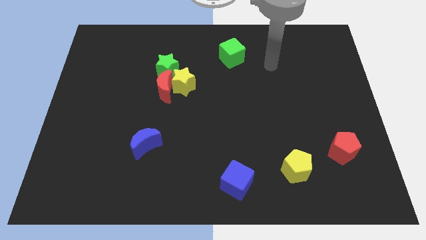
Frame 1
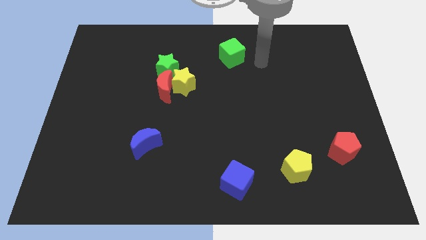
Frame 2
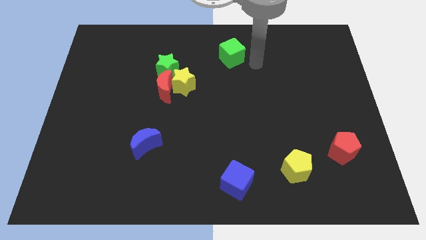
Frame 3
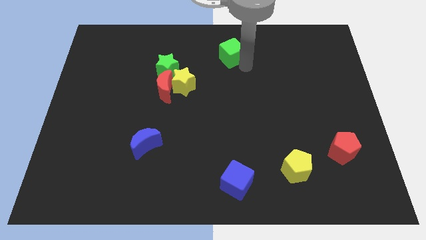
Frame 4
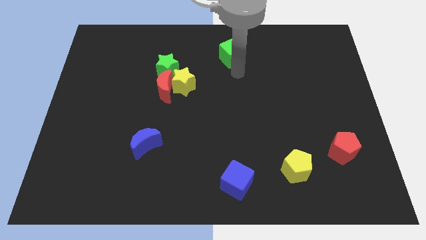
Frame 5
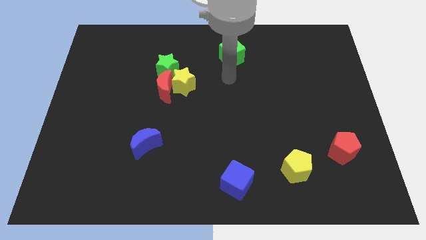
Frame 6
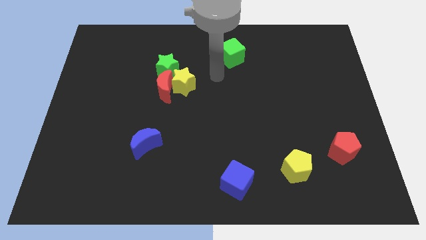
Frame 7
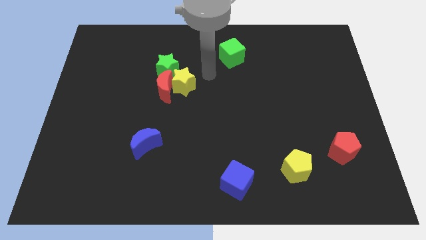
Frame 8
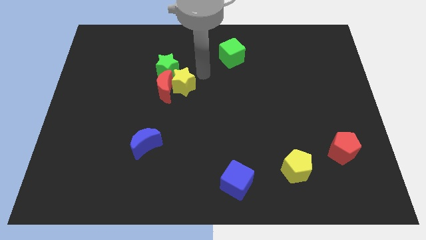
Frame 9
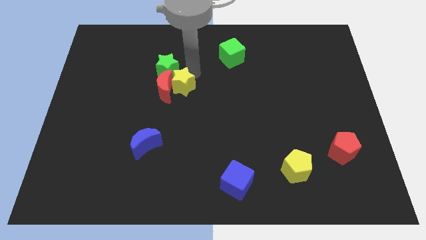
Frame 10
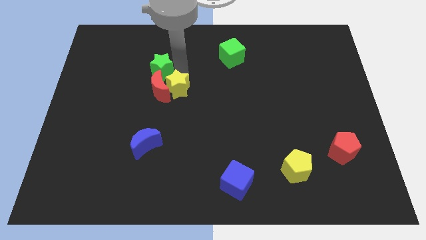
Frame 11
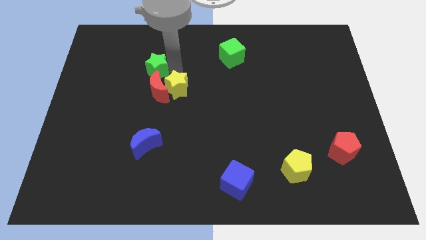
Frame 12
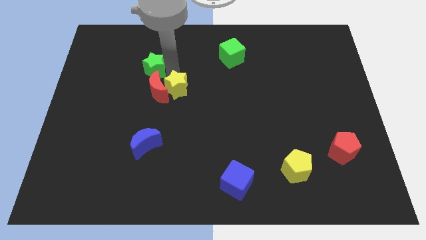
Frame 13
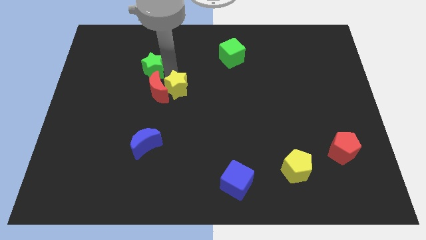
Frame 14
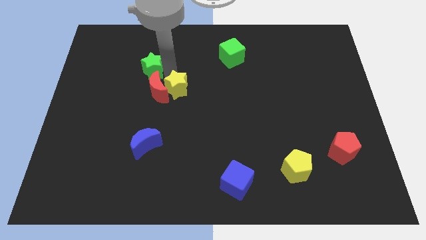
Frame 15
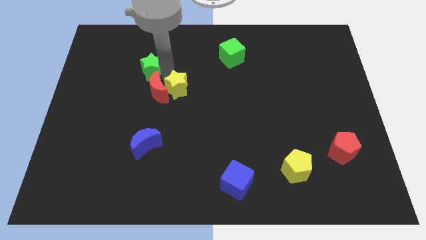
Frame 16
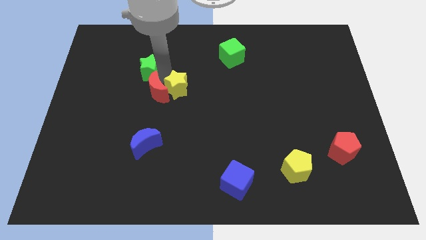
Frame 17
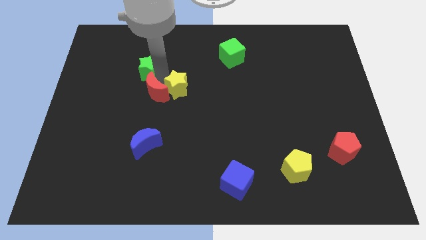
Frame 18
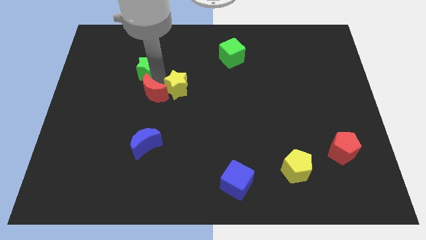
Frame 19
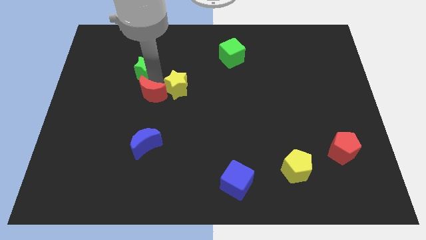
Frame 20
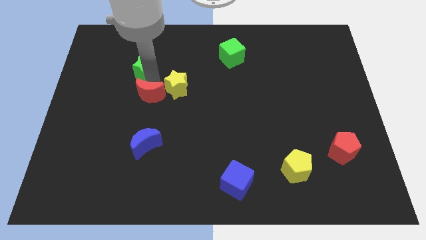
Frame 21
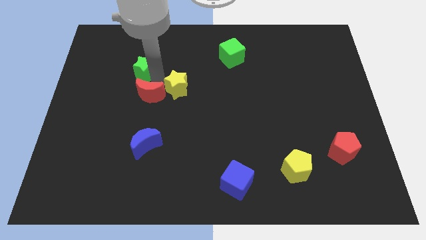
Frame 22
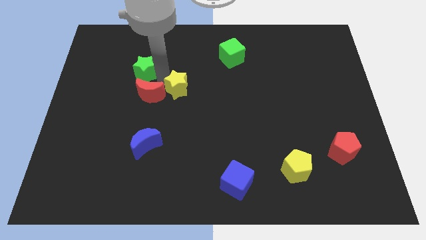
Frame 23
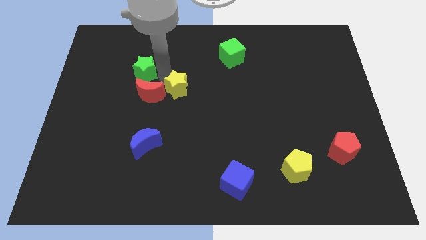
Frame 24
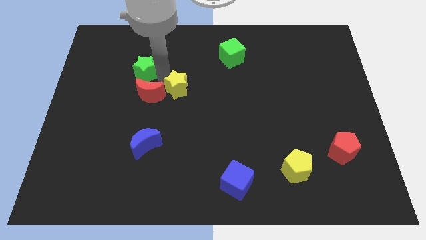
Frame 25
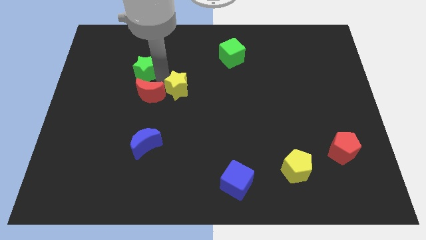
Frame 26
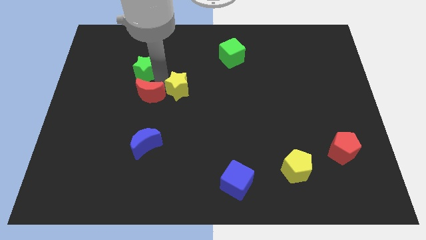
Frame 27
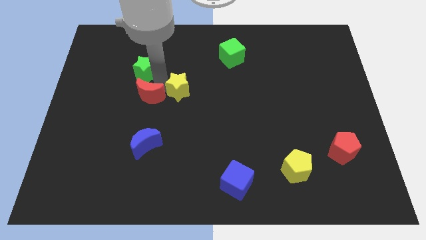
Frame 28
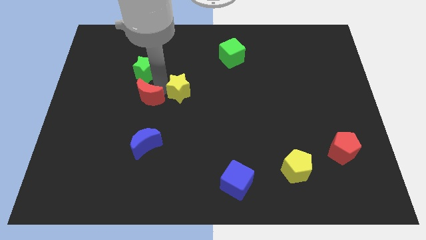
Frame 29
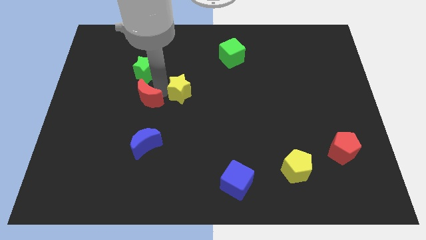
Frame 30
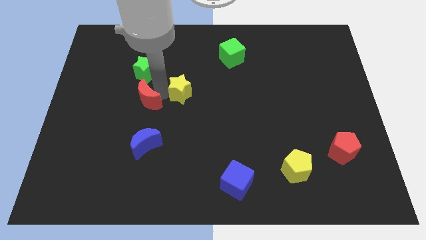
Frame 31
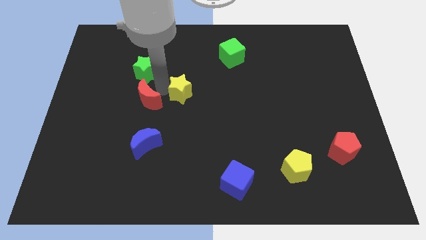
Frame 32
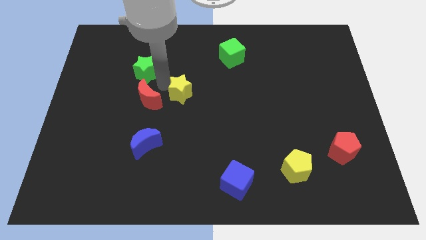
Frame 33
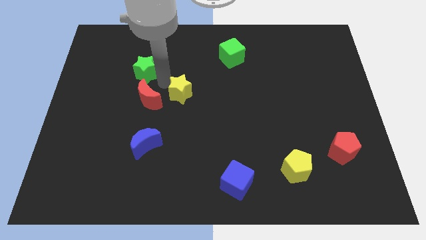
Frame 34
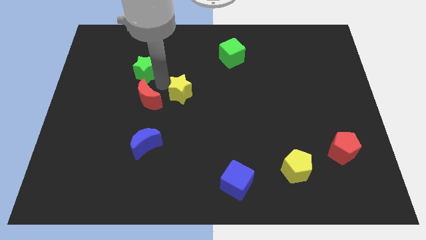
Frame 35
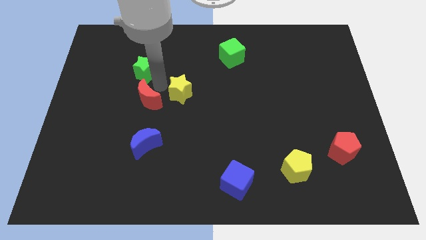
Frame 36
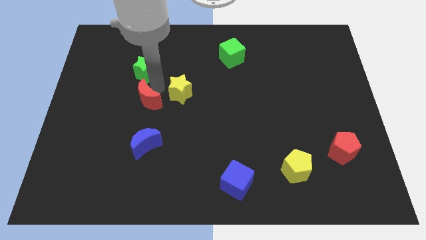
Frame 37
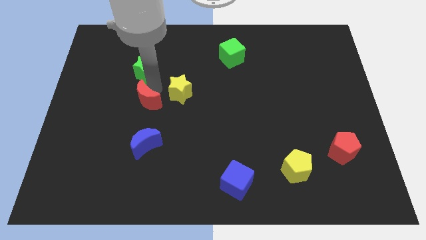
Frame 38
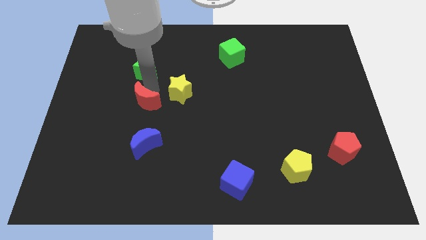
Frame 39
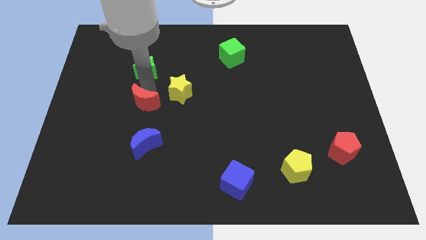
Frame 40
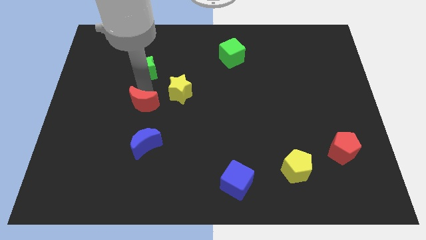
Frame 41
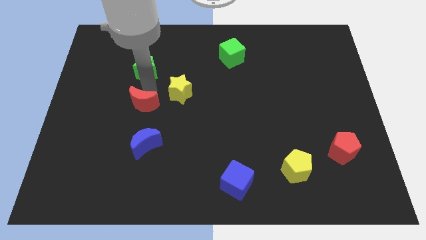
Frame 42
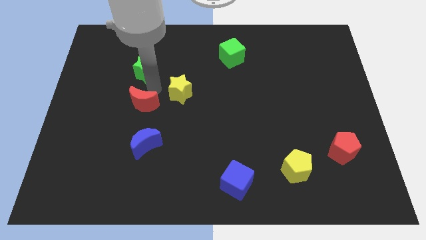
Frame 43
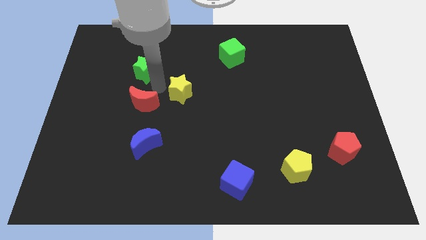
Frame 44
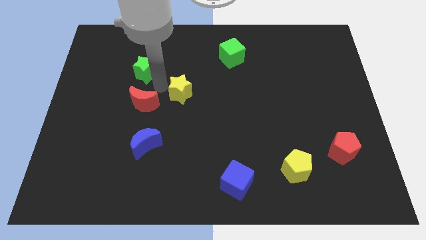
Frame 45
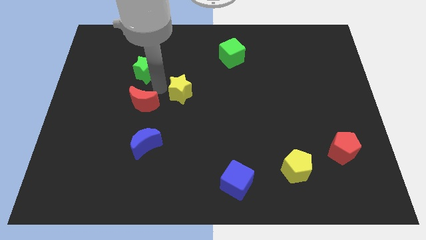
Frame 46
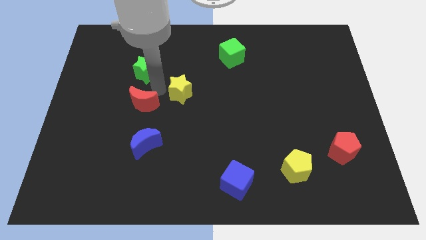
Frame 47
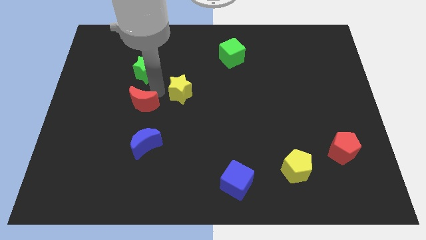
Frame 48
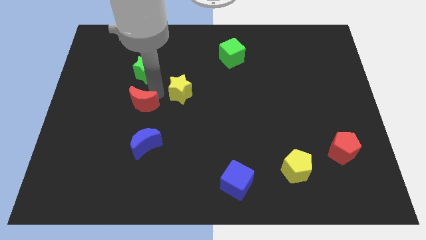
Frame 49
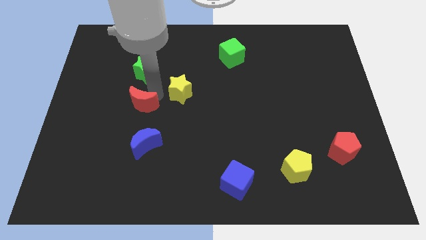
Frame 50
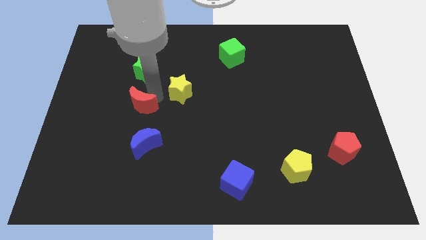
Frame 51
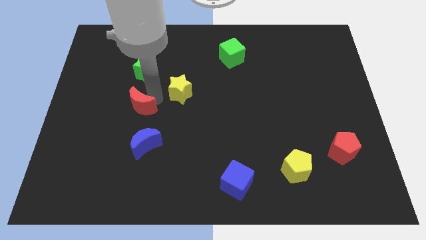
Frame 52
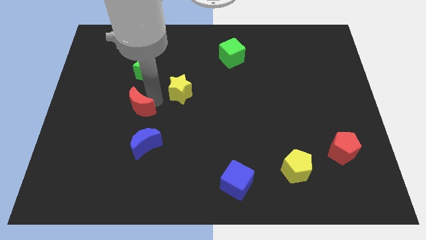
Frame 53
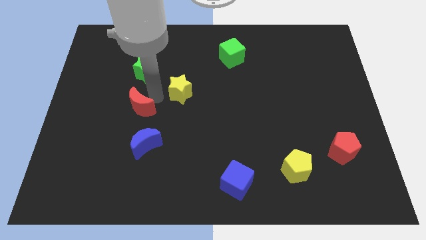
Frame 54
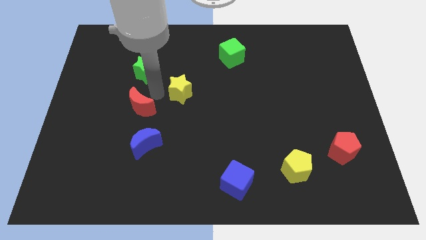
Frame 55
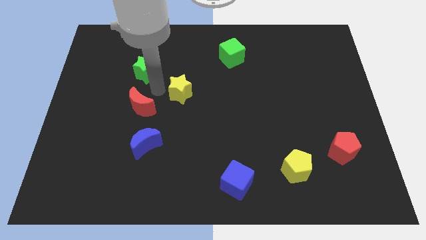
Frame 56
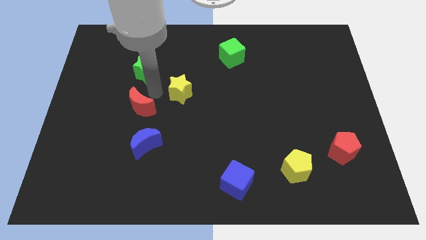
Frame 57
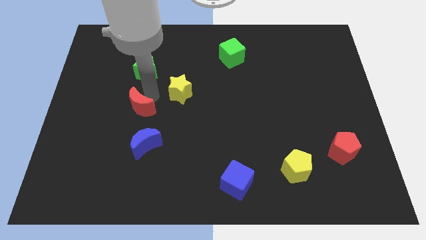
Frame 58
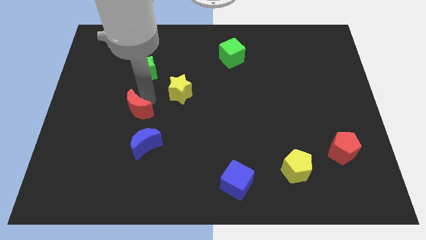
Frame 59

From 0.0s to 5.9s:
move the red moon away from the yellow star and green star

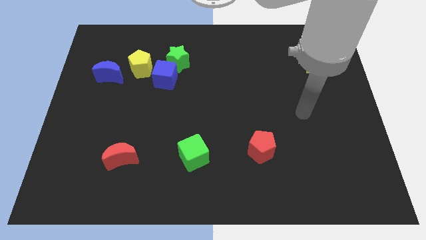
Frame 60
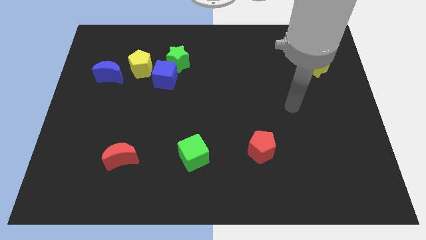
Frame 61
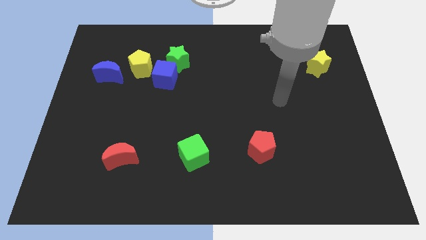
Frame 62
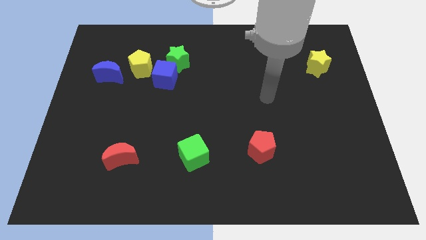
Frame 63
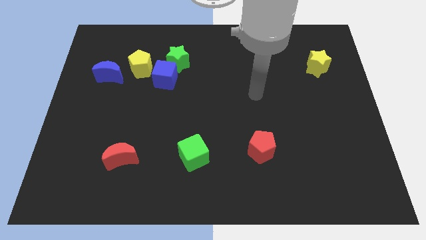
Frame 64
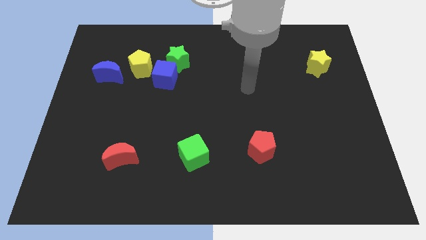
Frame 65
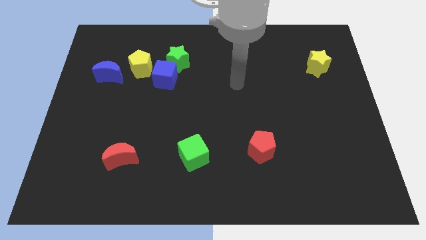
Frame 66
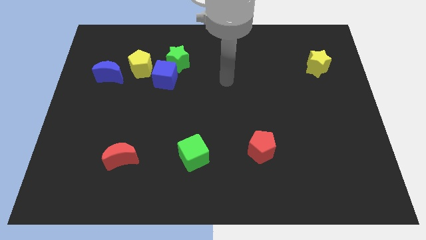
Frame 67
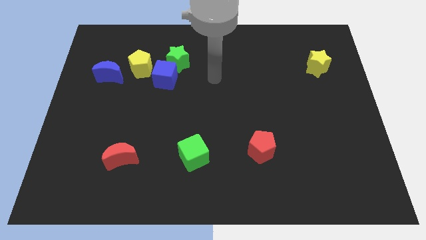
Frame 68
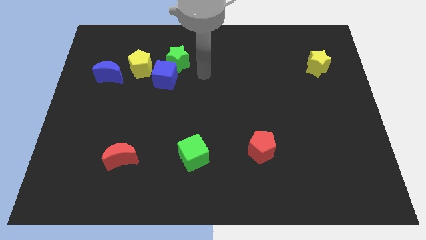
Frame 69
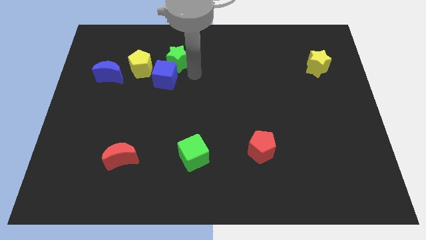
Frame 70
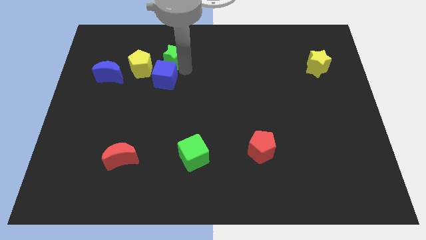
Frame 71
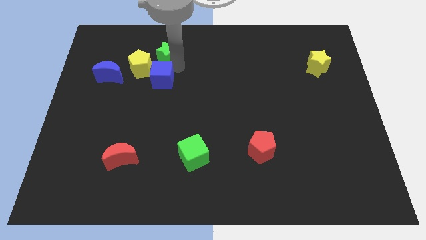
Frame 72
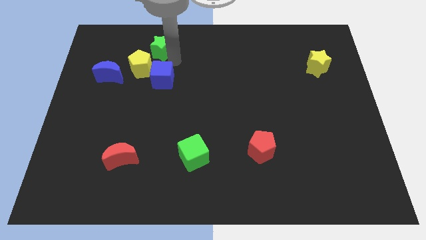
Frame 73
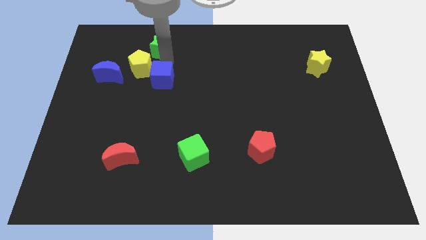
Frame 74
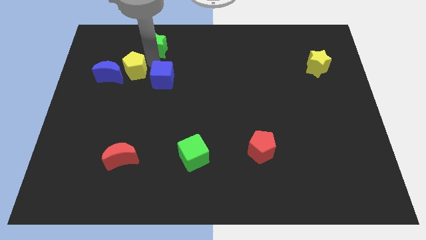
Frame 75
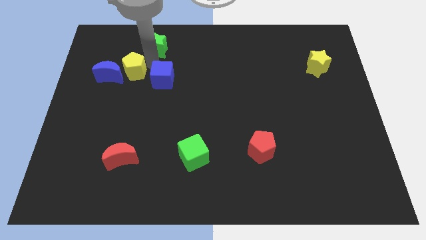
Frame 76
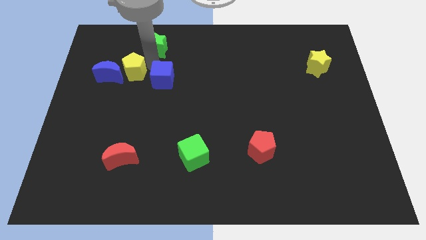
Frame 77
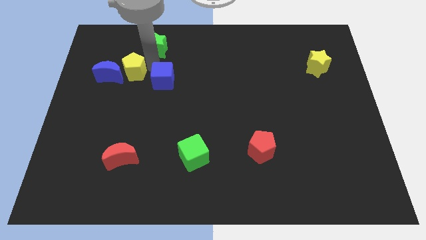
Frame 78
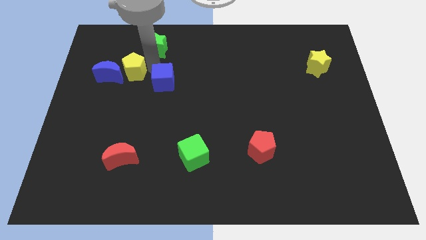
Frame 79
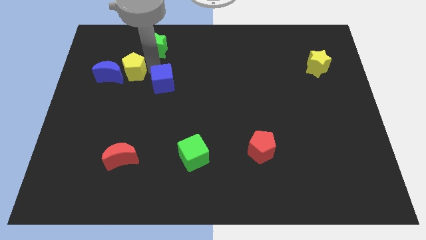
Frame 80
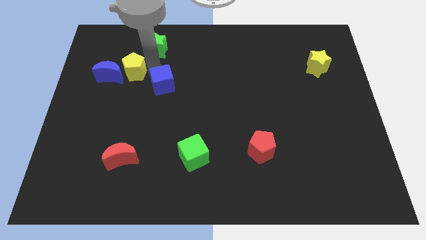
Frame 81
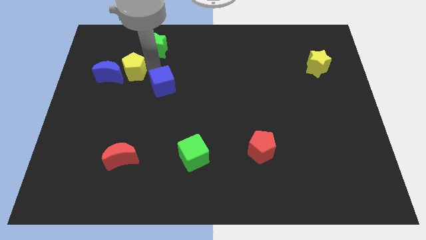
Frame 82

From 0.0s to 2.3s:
move the blue cube away from the green star and yellow pentagon

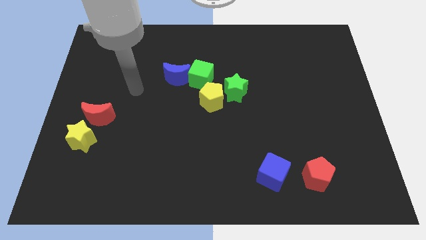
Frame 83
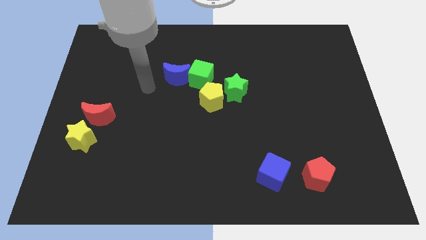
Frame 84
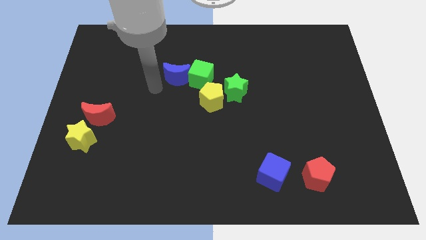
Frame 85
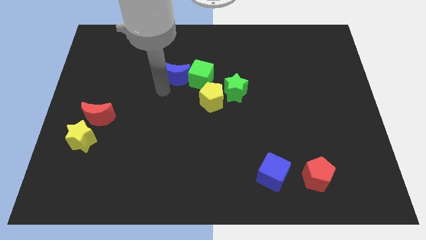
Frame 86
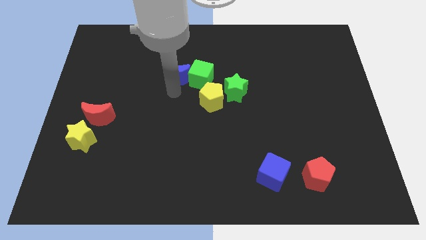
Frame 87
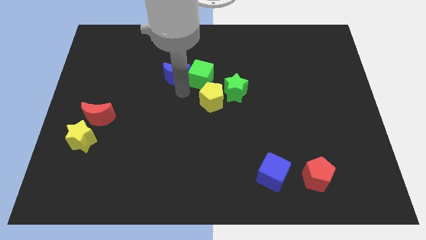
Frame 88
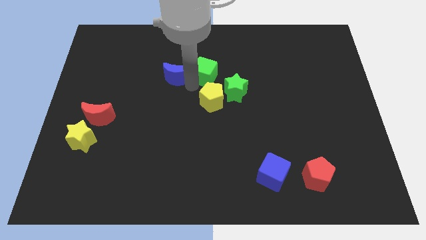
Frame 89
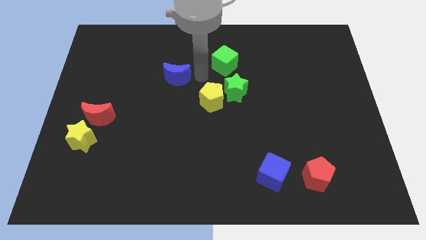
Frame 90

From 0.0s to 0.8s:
move the blue moon away from the green cube

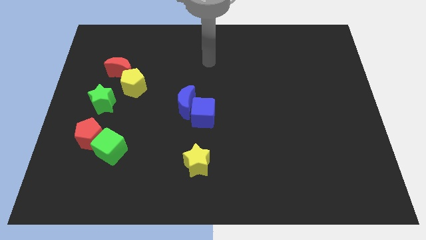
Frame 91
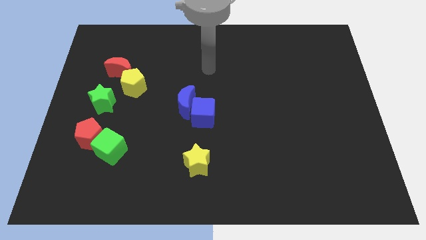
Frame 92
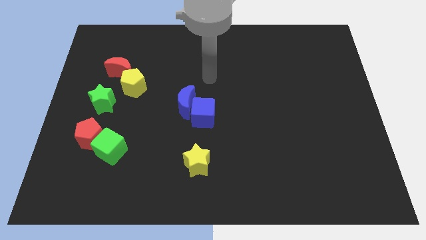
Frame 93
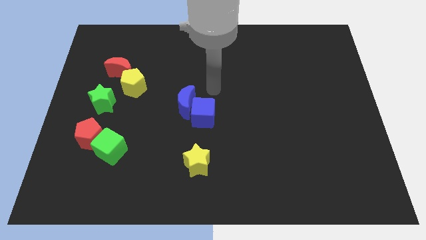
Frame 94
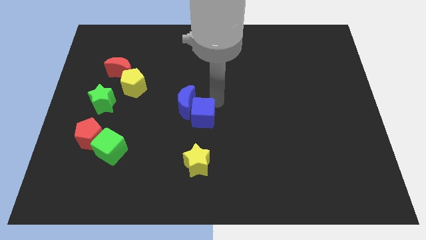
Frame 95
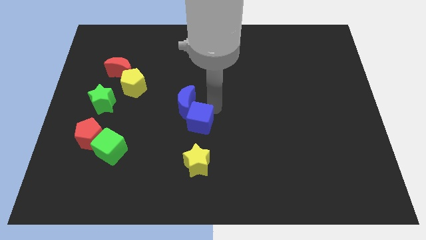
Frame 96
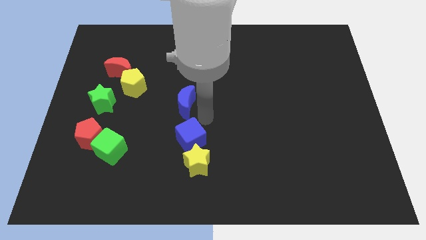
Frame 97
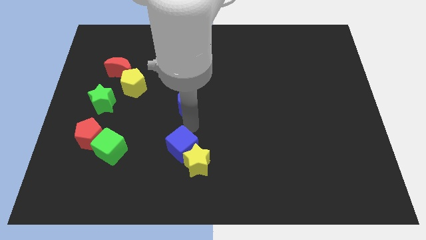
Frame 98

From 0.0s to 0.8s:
move the blue moon away from the blue cube
